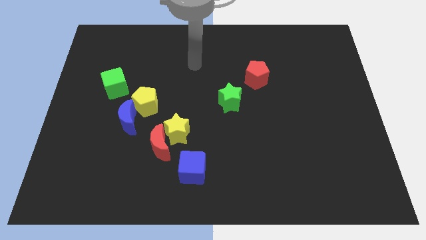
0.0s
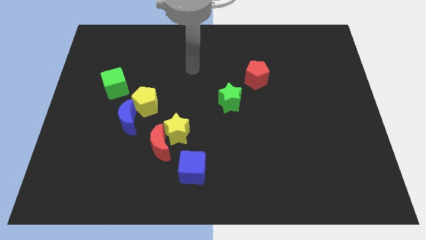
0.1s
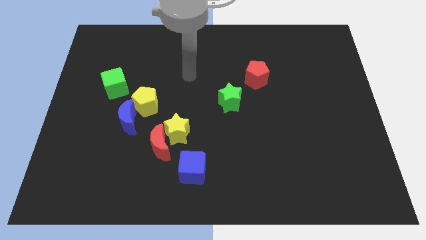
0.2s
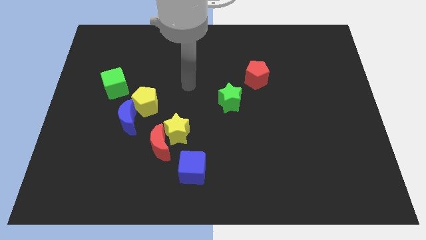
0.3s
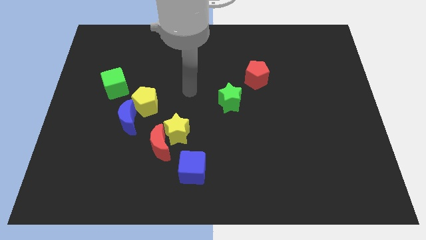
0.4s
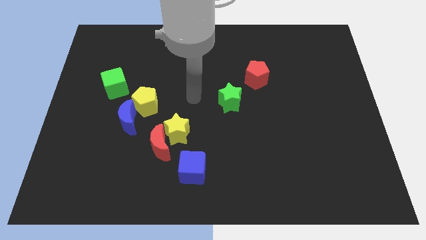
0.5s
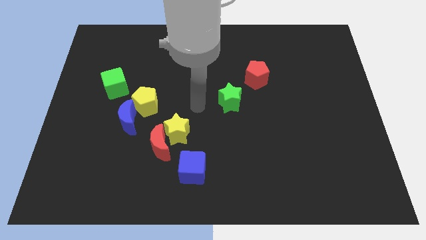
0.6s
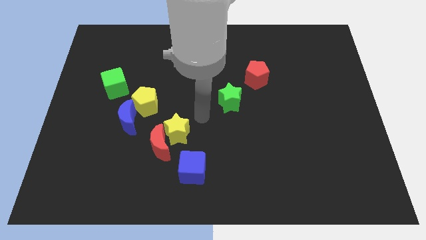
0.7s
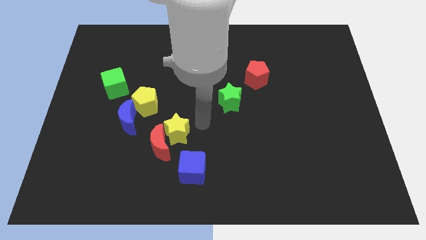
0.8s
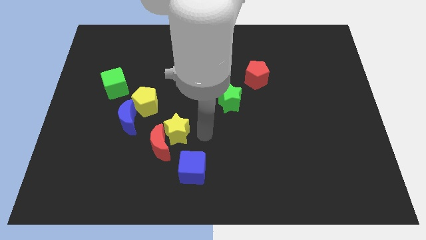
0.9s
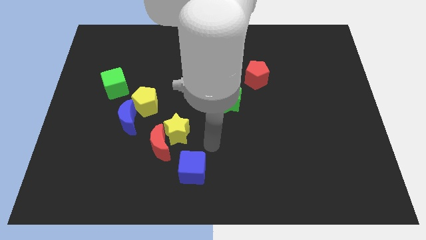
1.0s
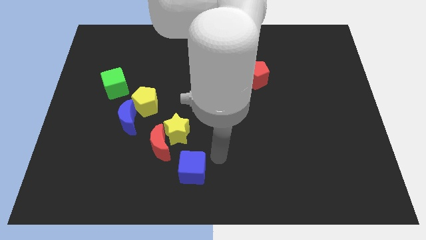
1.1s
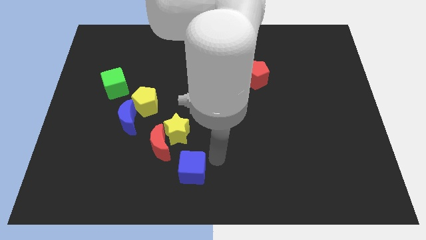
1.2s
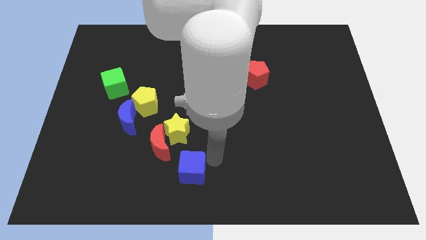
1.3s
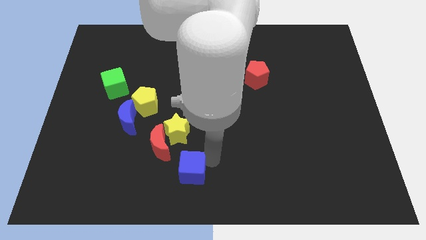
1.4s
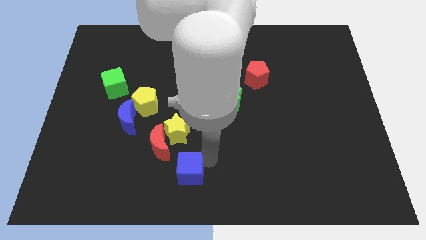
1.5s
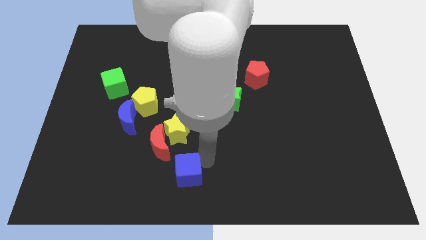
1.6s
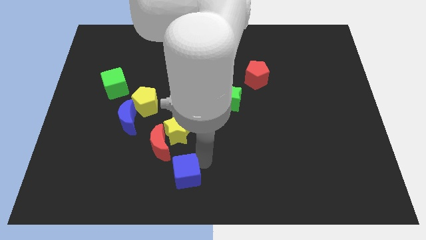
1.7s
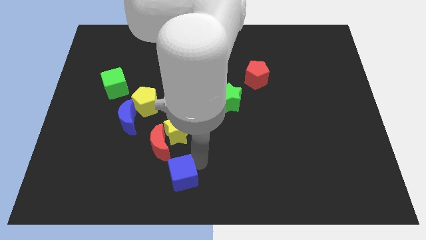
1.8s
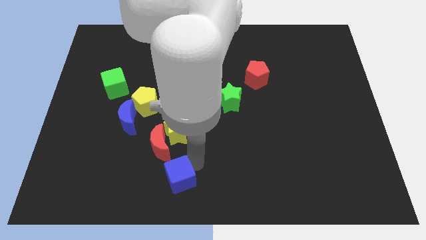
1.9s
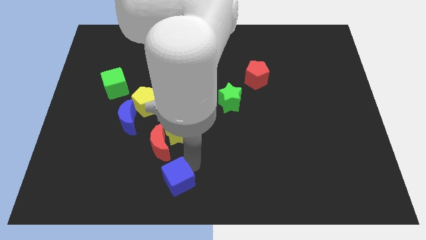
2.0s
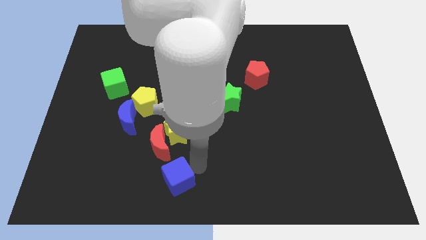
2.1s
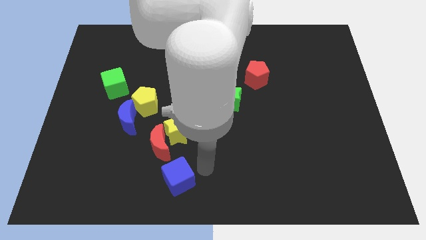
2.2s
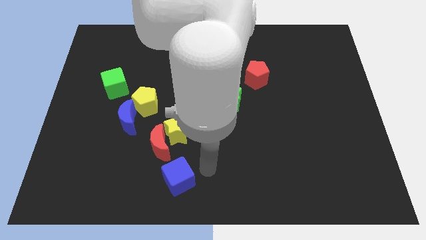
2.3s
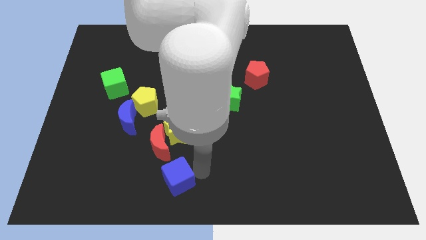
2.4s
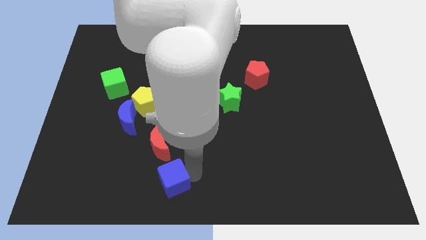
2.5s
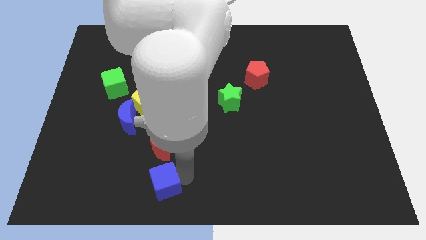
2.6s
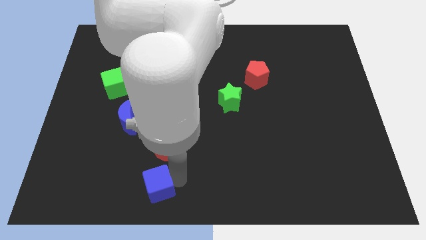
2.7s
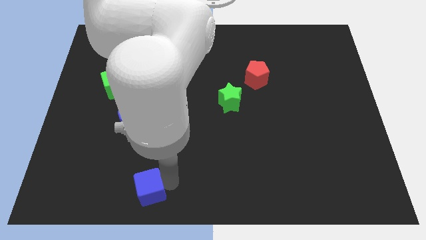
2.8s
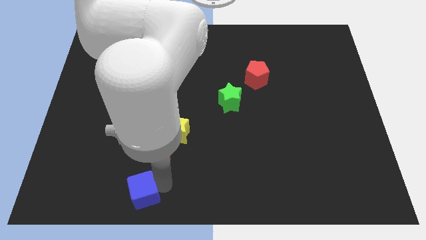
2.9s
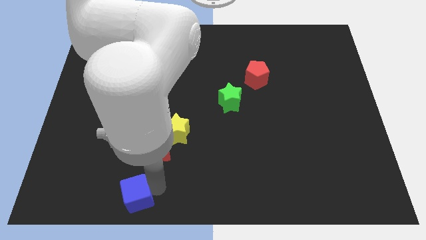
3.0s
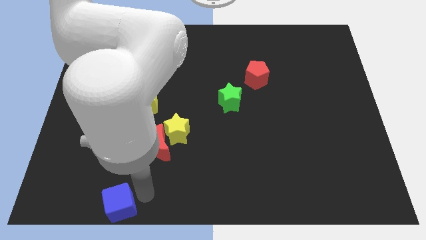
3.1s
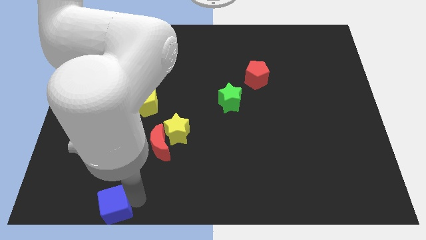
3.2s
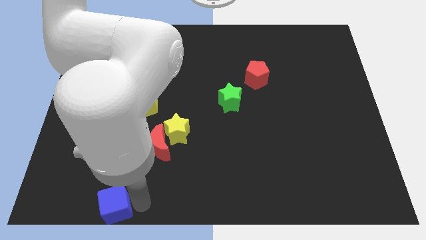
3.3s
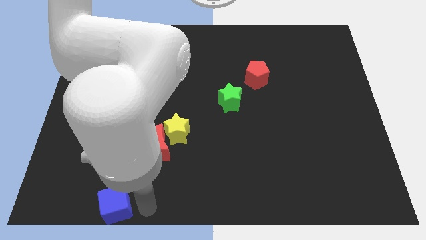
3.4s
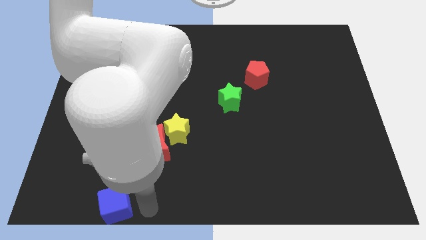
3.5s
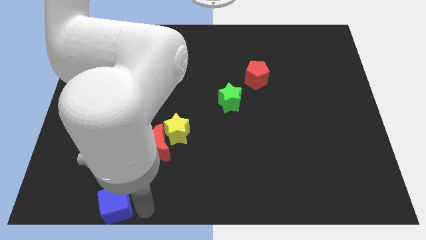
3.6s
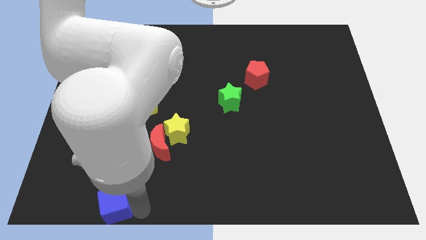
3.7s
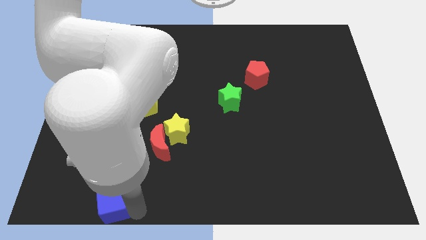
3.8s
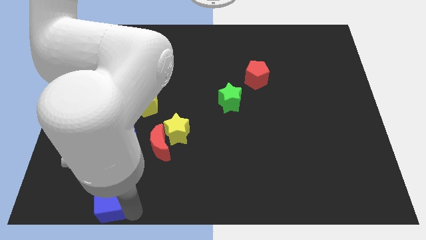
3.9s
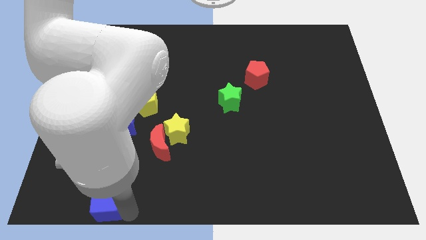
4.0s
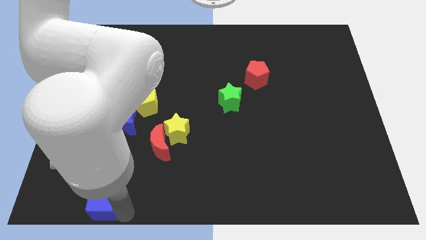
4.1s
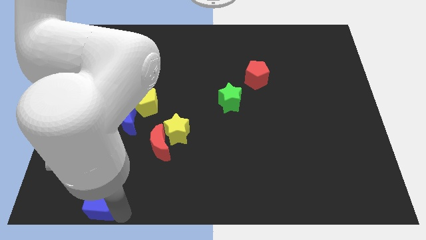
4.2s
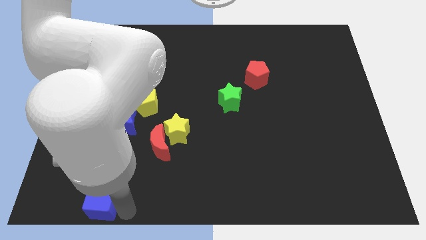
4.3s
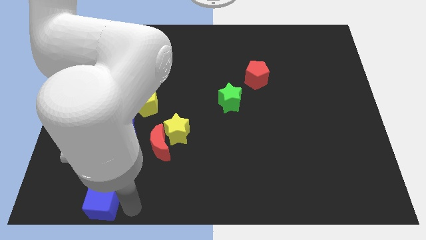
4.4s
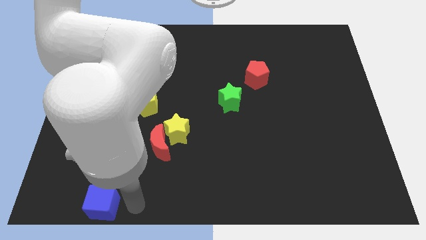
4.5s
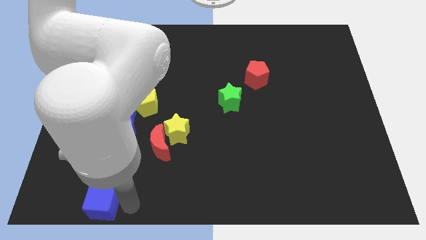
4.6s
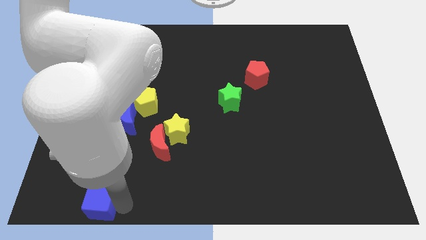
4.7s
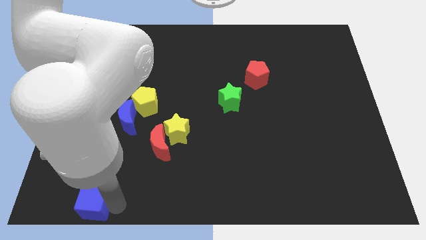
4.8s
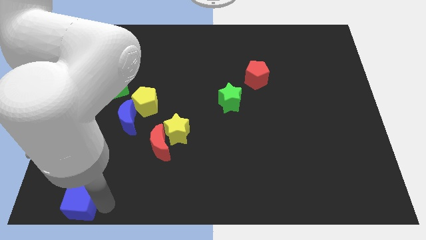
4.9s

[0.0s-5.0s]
move the blue cube to the bottom left
